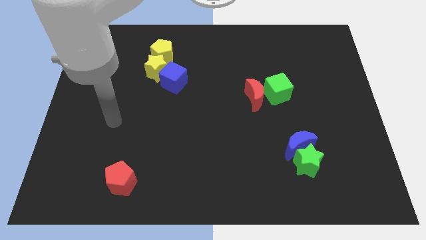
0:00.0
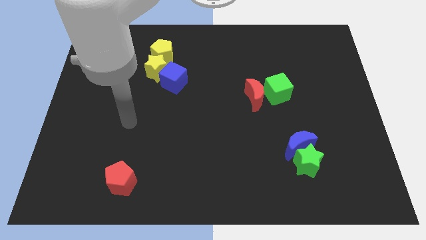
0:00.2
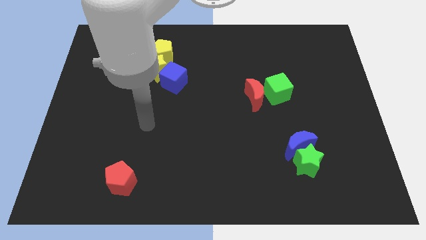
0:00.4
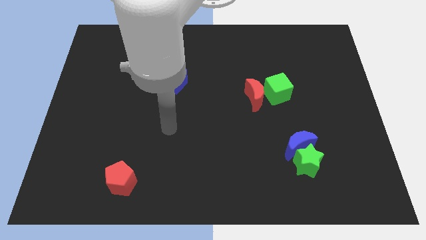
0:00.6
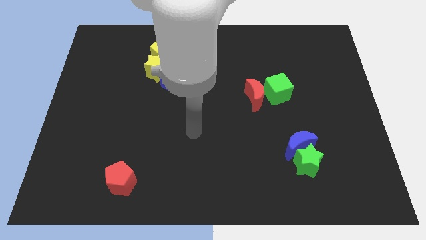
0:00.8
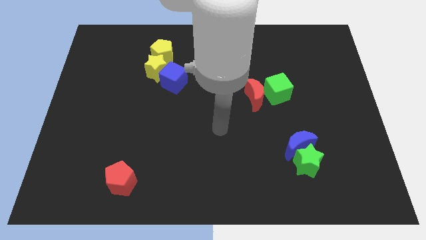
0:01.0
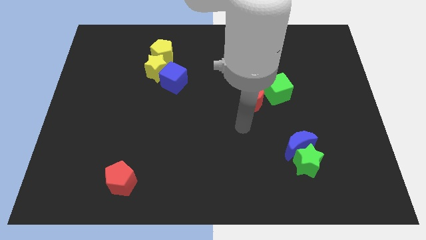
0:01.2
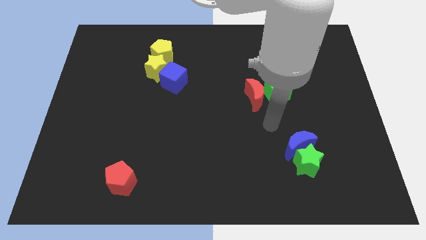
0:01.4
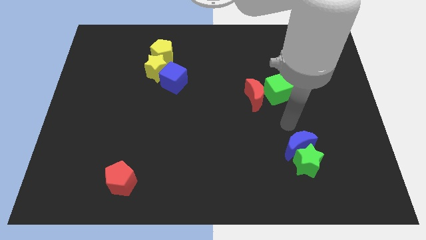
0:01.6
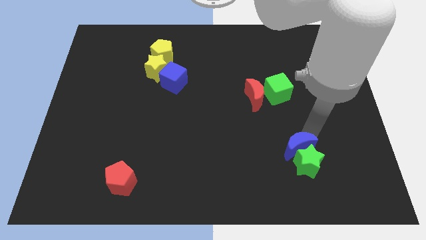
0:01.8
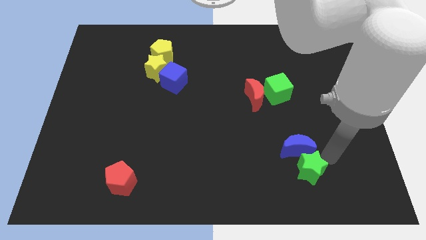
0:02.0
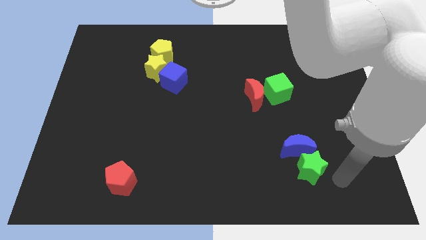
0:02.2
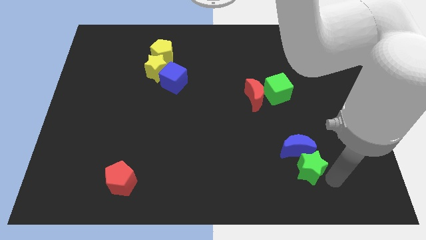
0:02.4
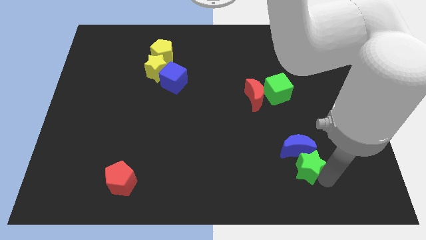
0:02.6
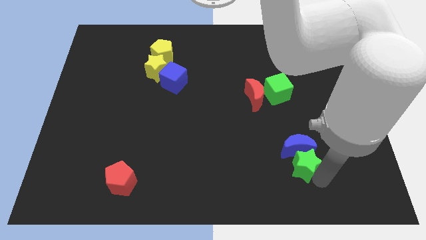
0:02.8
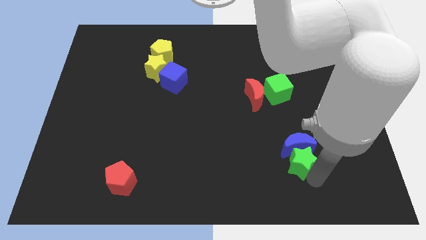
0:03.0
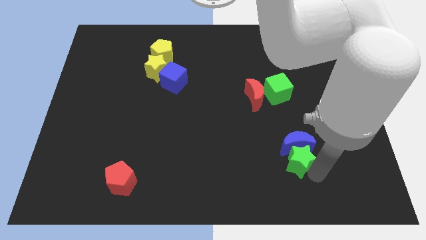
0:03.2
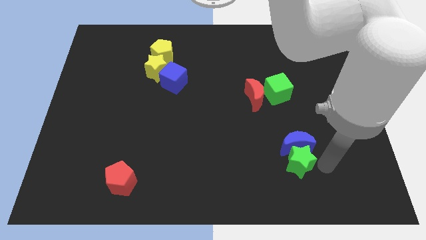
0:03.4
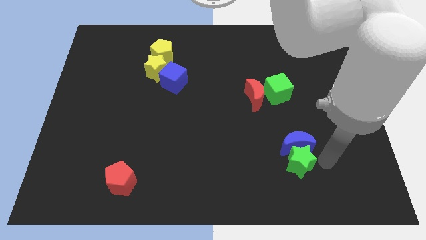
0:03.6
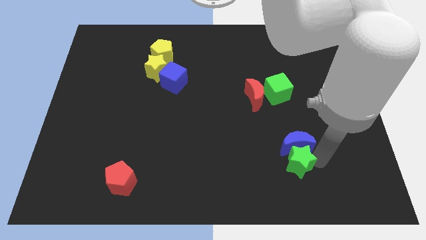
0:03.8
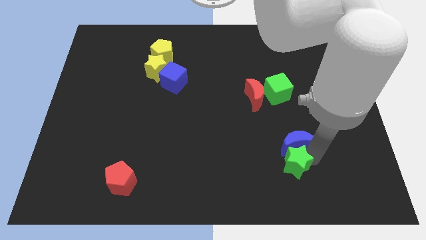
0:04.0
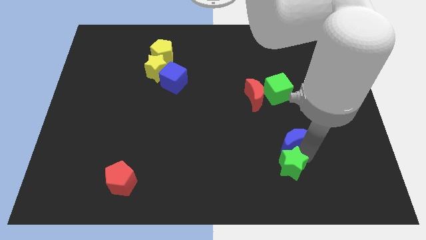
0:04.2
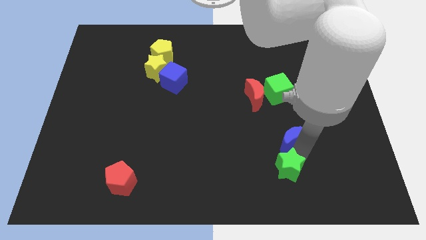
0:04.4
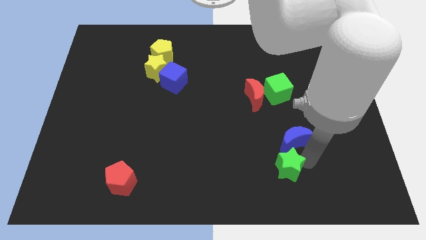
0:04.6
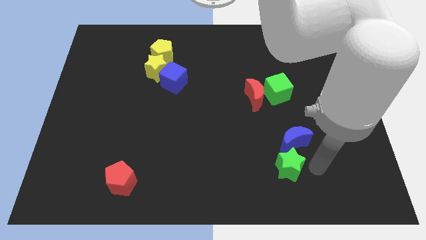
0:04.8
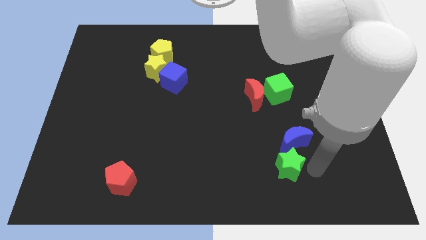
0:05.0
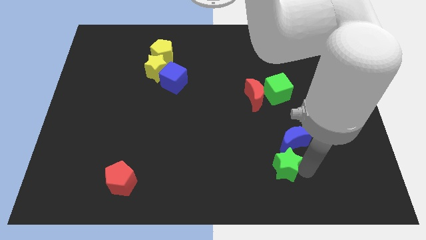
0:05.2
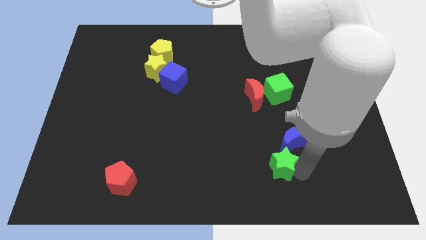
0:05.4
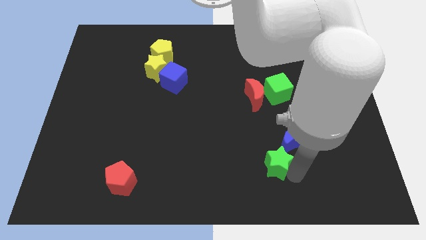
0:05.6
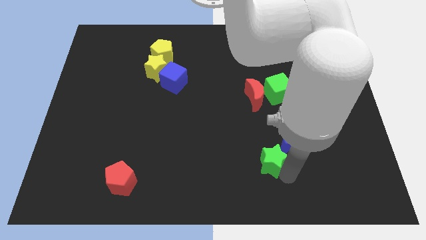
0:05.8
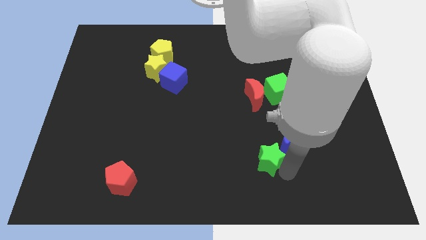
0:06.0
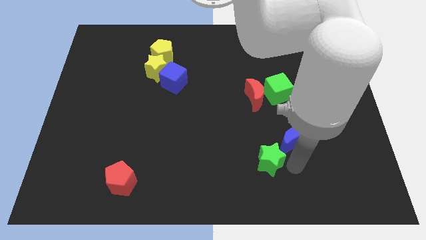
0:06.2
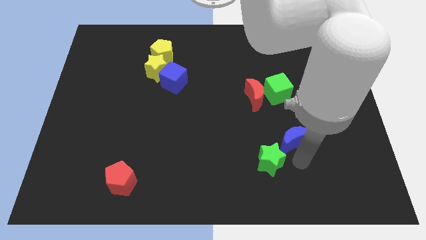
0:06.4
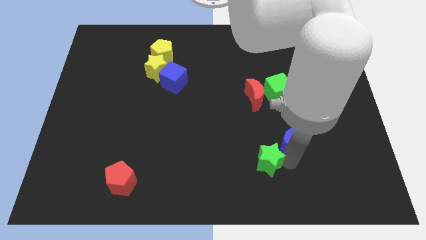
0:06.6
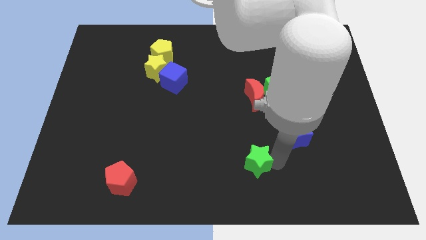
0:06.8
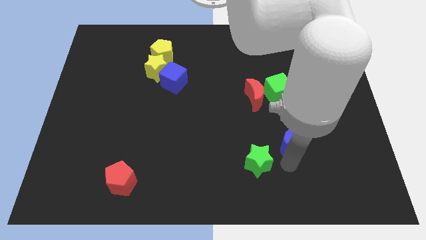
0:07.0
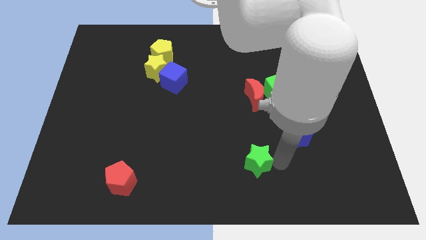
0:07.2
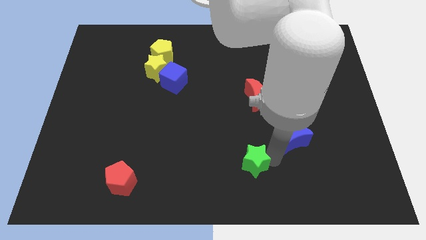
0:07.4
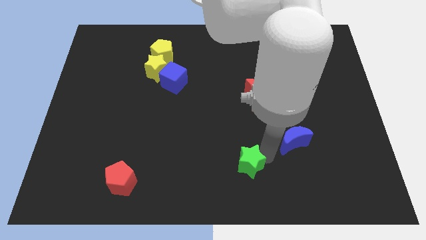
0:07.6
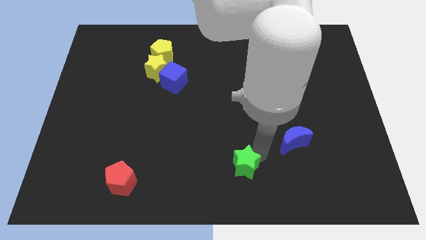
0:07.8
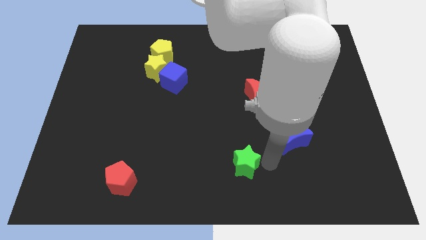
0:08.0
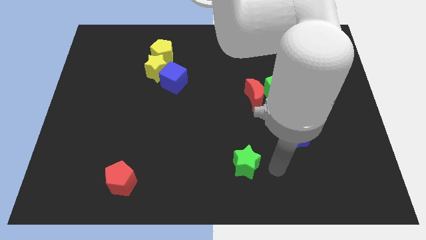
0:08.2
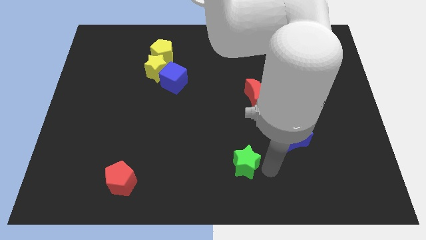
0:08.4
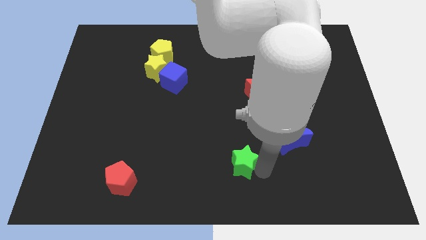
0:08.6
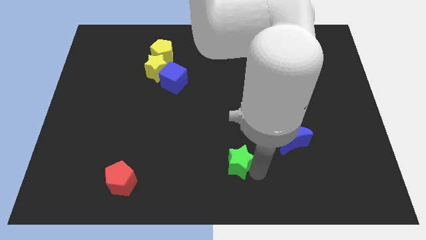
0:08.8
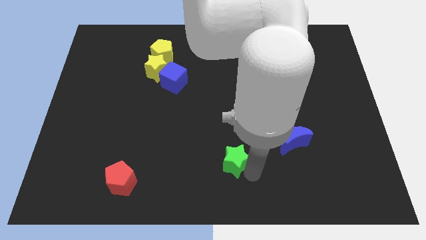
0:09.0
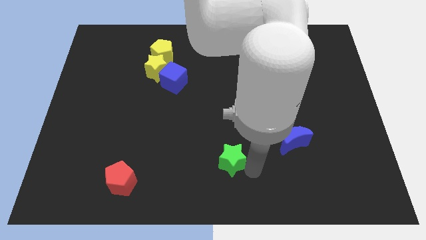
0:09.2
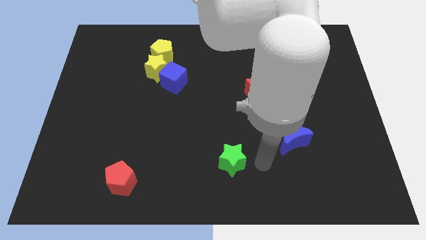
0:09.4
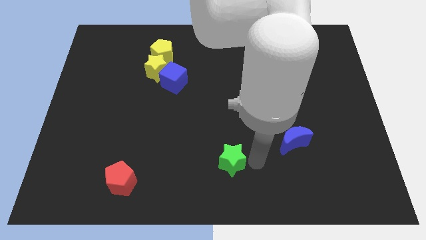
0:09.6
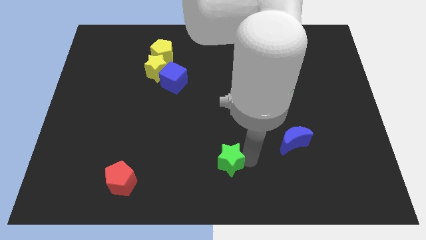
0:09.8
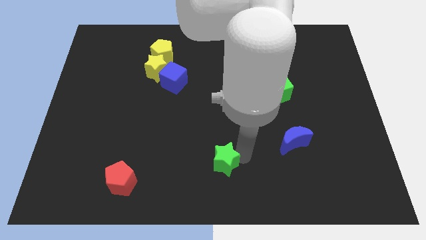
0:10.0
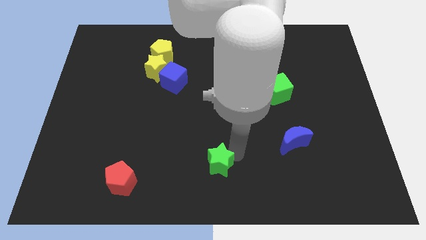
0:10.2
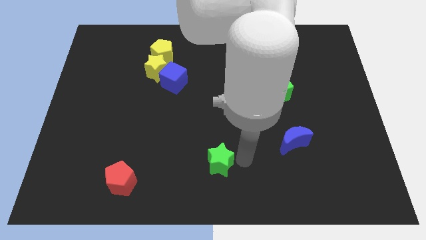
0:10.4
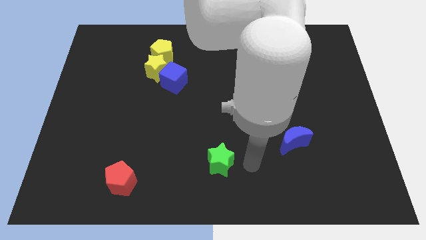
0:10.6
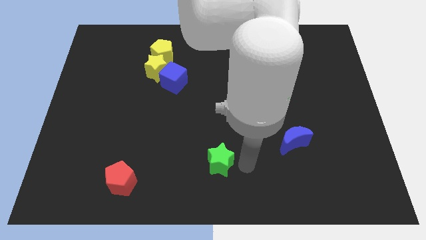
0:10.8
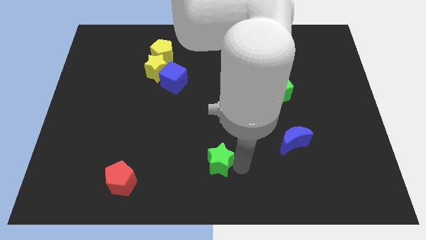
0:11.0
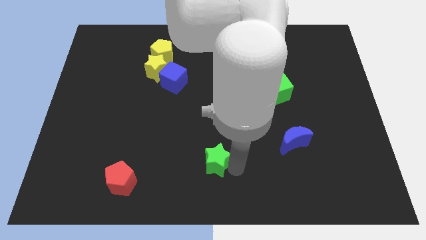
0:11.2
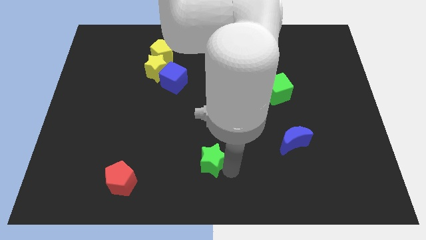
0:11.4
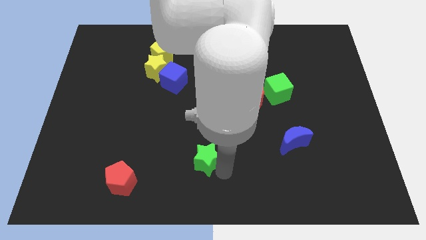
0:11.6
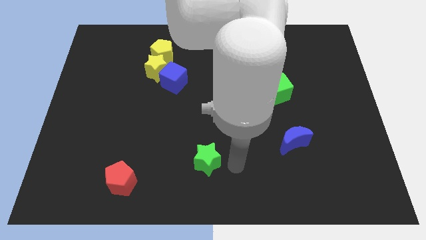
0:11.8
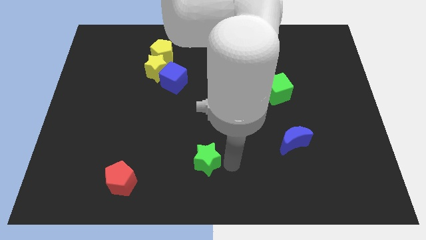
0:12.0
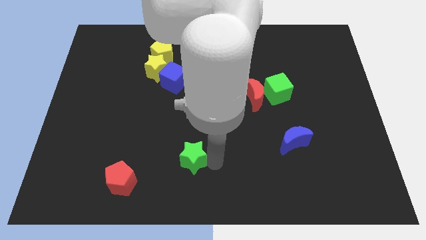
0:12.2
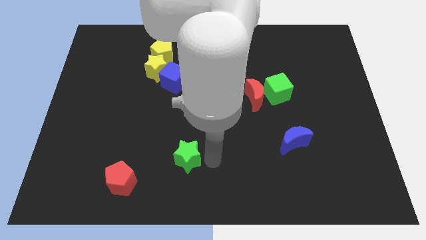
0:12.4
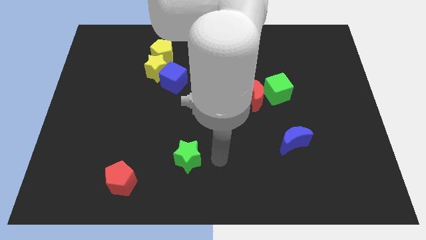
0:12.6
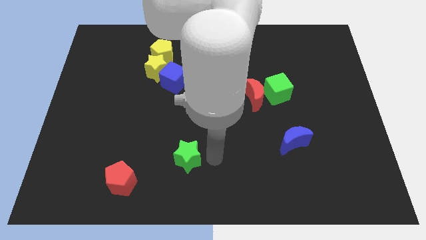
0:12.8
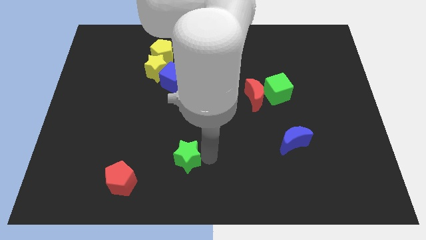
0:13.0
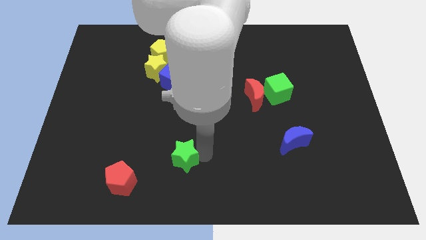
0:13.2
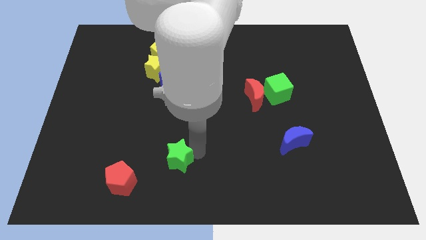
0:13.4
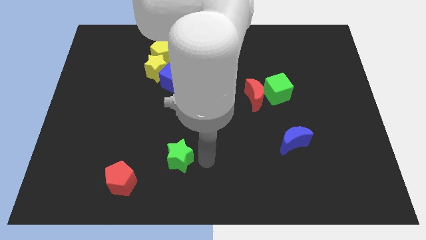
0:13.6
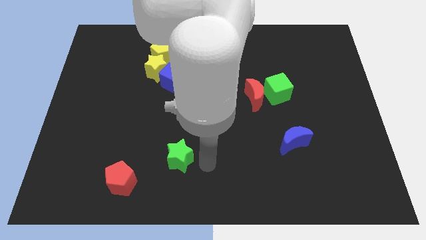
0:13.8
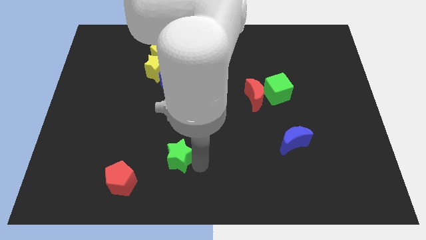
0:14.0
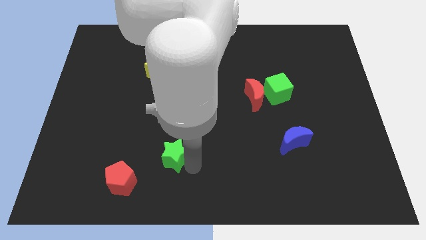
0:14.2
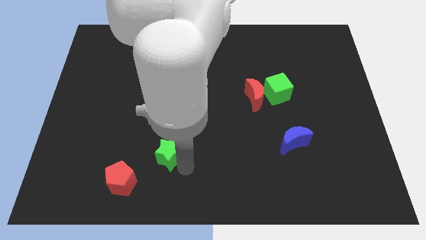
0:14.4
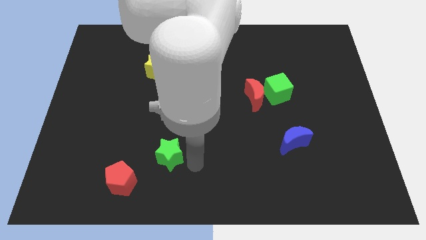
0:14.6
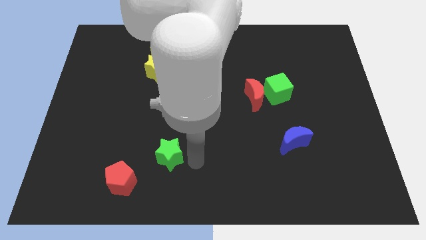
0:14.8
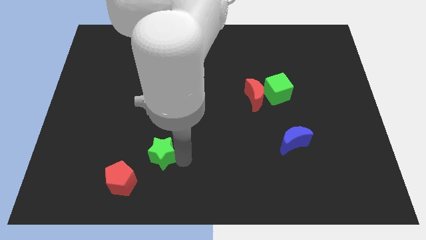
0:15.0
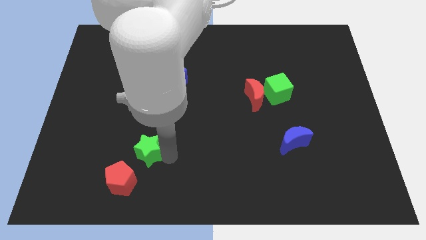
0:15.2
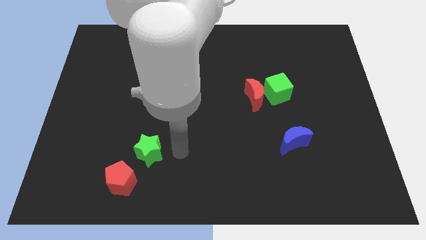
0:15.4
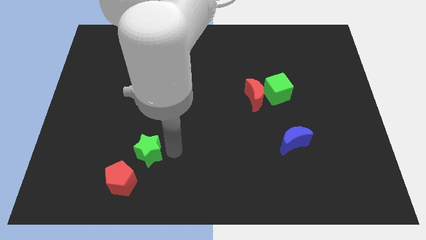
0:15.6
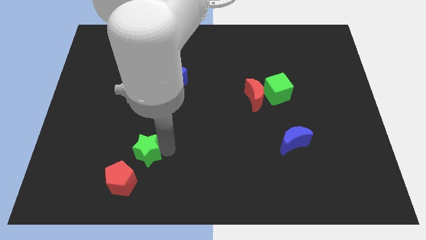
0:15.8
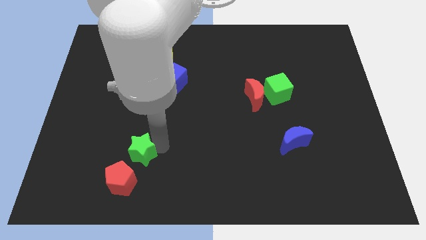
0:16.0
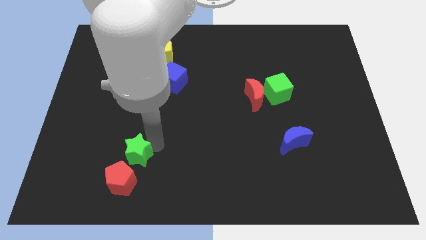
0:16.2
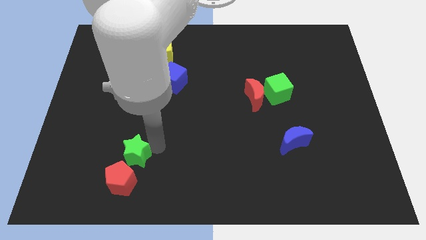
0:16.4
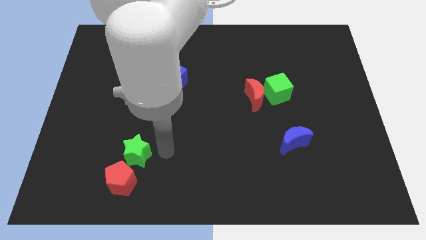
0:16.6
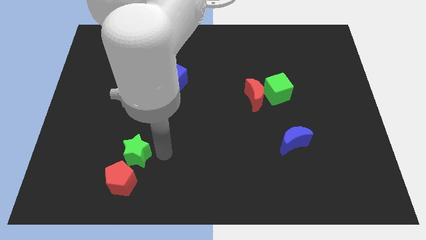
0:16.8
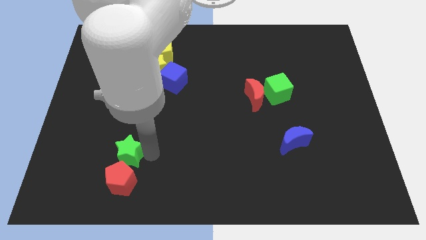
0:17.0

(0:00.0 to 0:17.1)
put the green star to the top left side of the red pentagon
